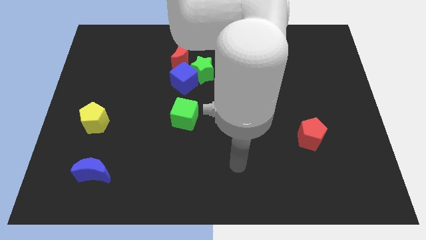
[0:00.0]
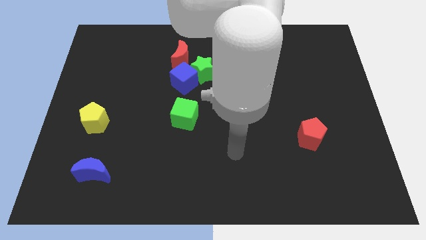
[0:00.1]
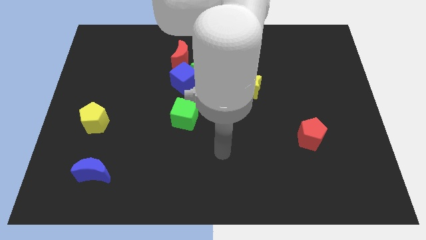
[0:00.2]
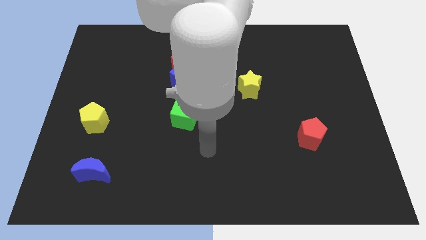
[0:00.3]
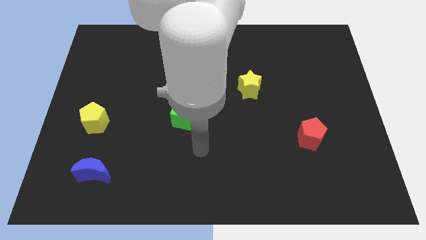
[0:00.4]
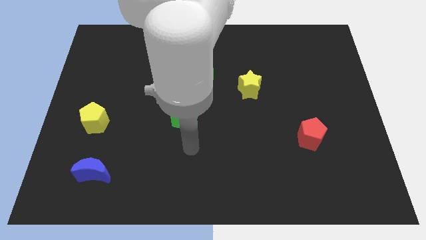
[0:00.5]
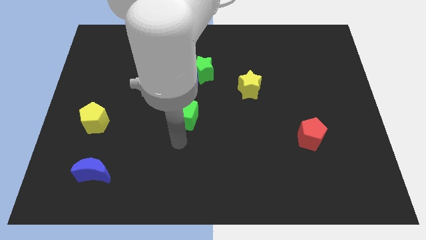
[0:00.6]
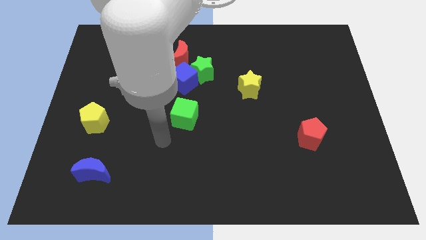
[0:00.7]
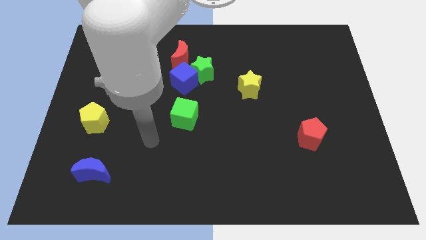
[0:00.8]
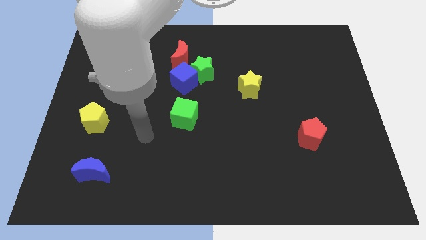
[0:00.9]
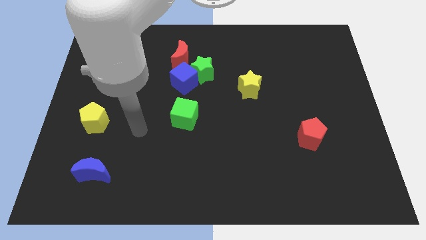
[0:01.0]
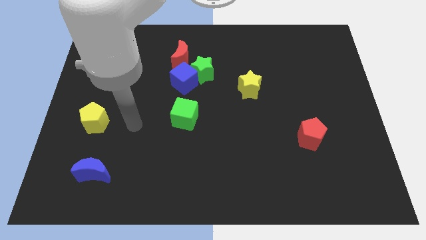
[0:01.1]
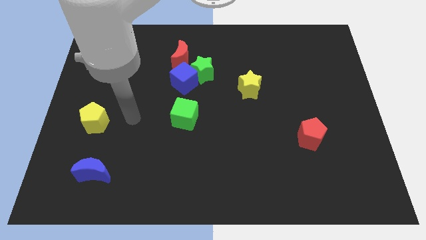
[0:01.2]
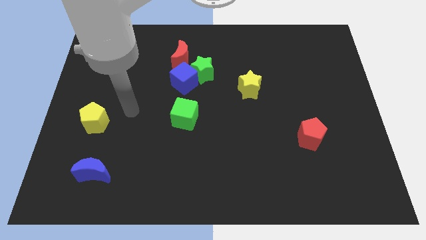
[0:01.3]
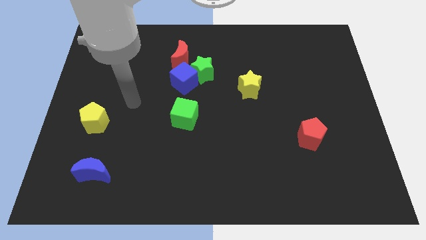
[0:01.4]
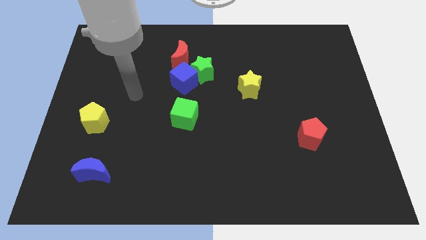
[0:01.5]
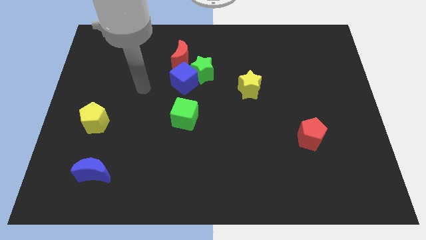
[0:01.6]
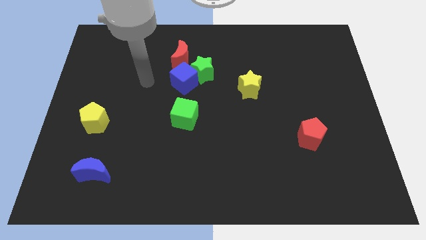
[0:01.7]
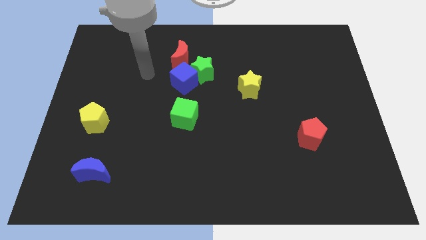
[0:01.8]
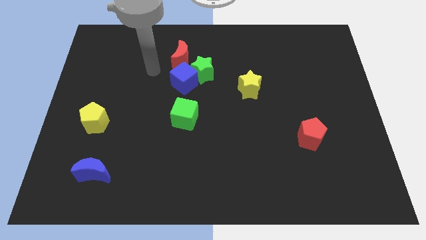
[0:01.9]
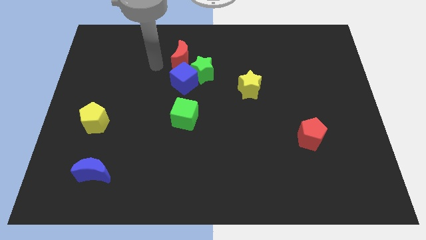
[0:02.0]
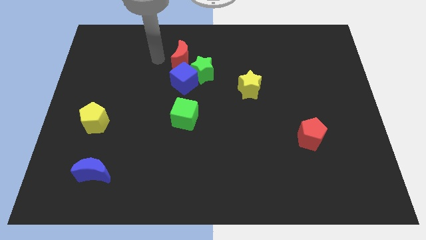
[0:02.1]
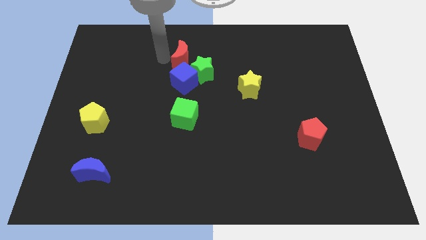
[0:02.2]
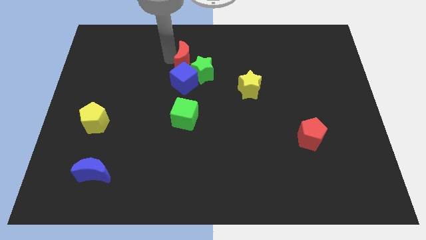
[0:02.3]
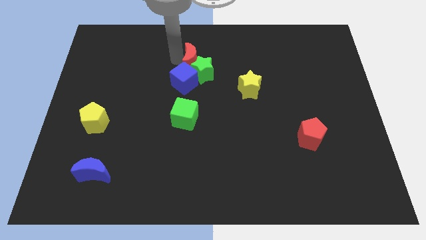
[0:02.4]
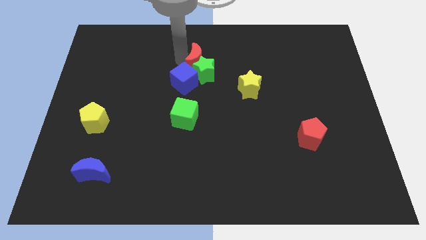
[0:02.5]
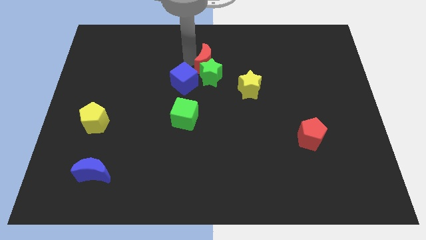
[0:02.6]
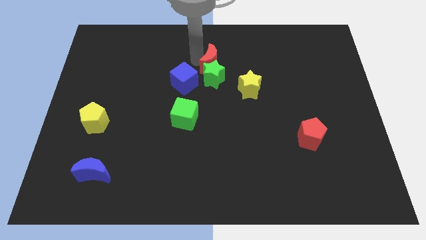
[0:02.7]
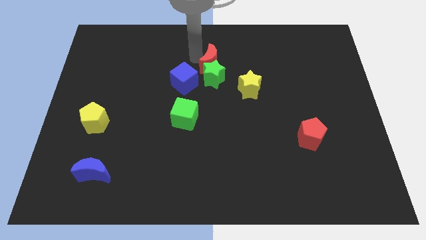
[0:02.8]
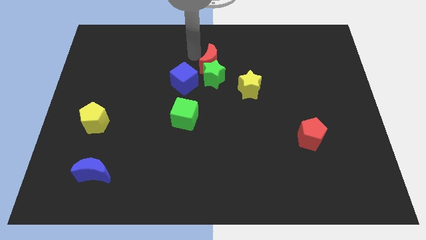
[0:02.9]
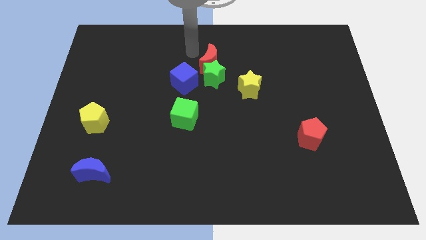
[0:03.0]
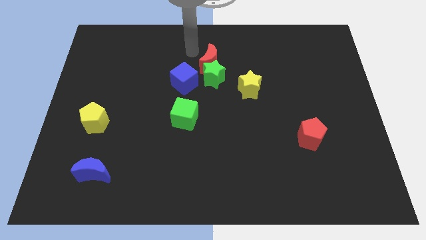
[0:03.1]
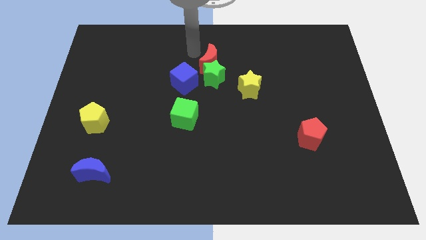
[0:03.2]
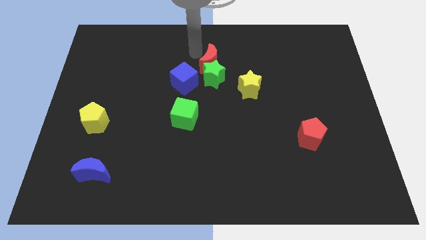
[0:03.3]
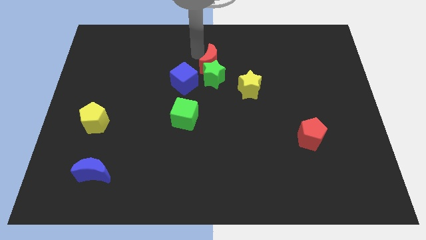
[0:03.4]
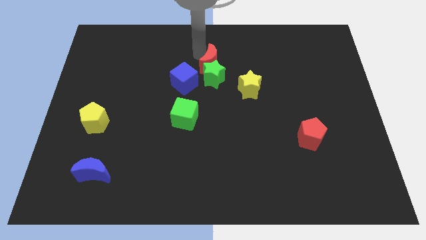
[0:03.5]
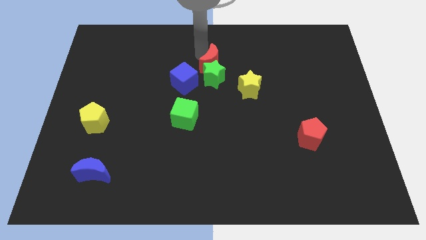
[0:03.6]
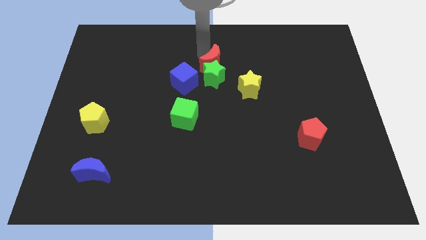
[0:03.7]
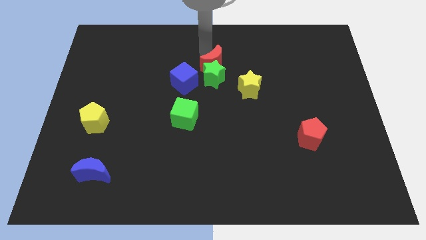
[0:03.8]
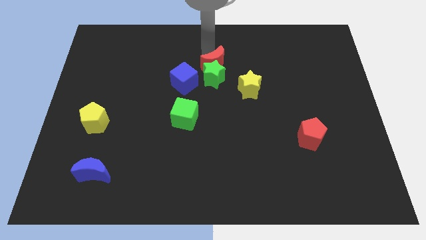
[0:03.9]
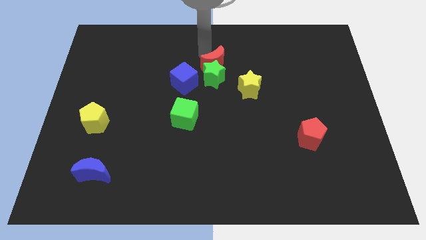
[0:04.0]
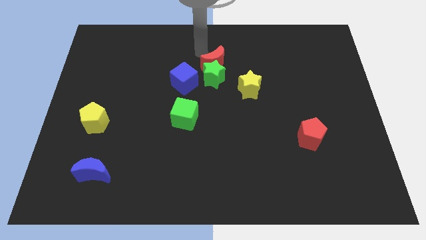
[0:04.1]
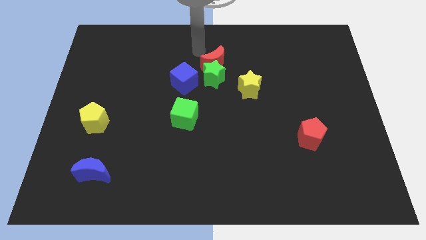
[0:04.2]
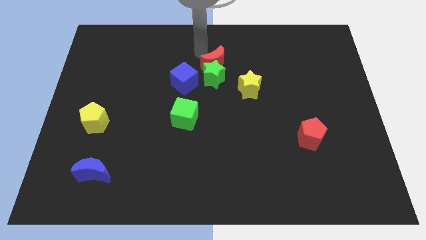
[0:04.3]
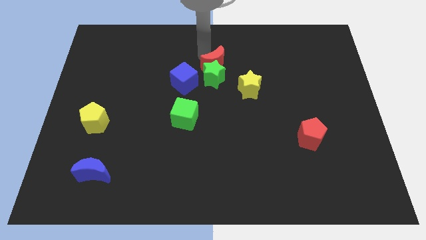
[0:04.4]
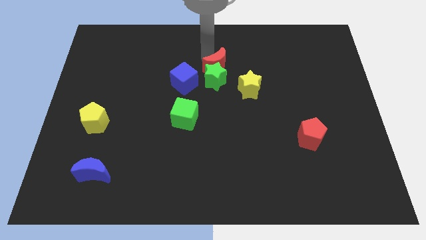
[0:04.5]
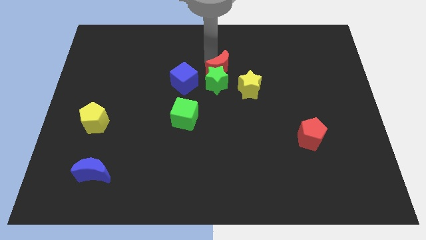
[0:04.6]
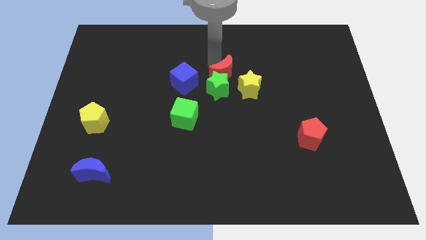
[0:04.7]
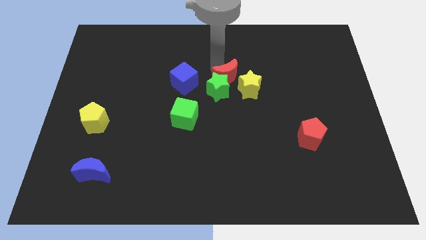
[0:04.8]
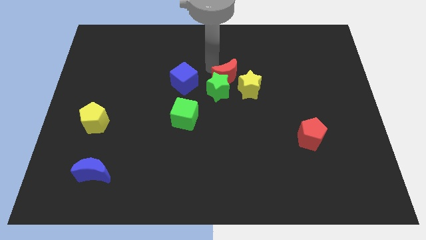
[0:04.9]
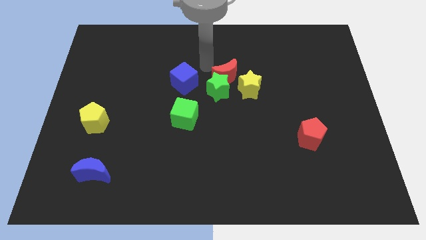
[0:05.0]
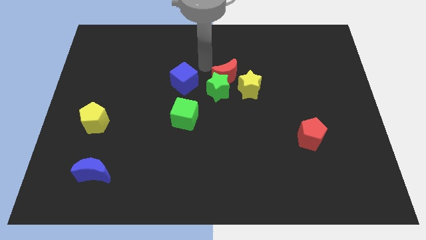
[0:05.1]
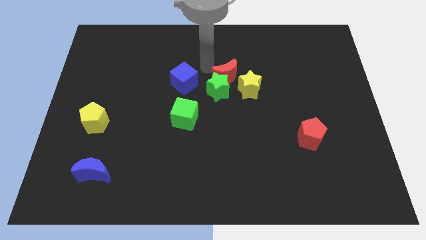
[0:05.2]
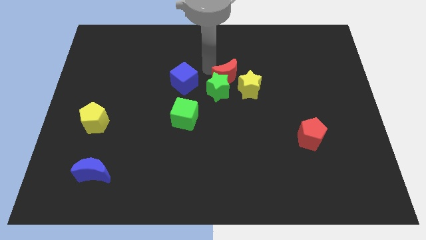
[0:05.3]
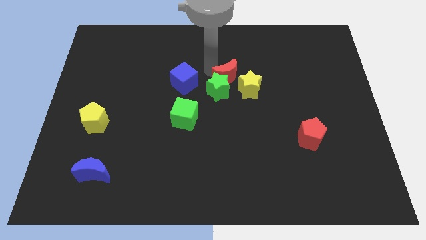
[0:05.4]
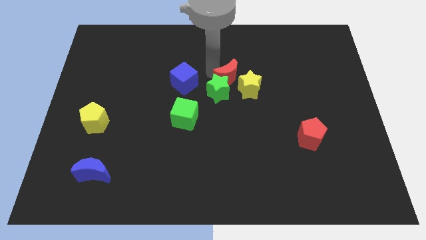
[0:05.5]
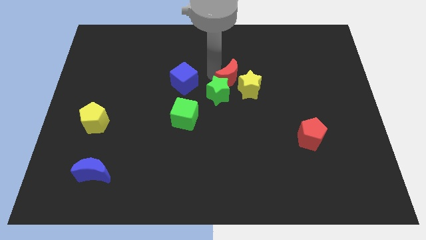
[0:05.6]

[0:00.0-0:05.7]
move the red moon next to the yellow star

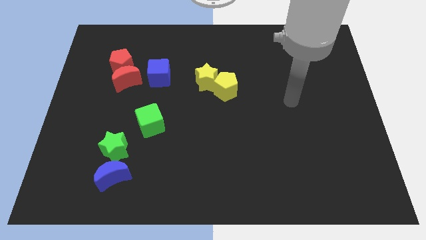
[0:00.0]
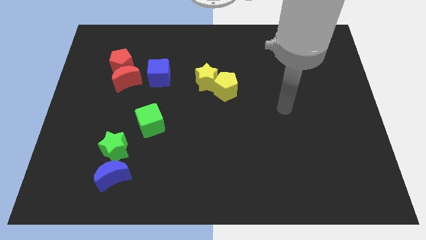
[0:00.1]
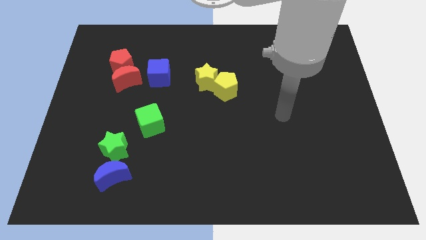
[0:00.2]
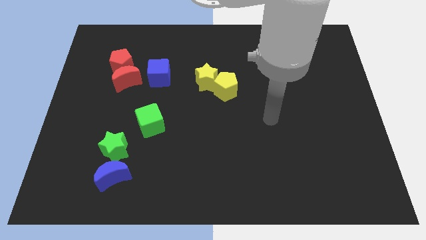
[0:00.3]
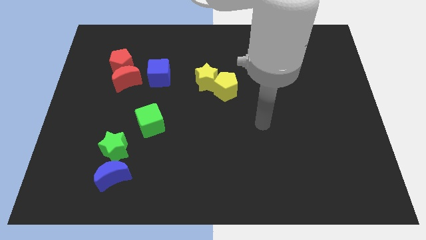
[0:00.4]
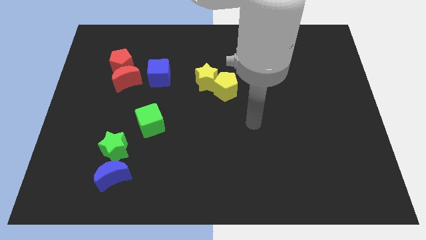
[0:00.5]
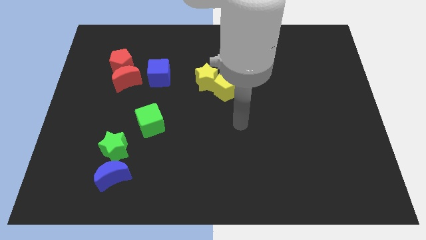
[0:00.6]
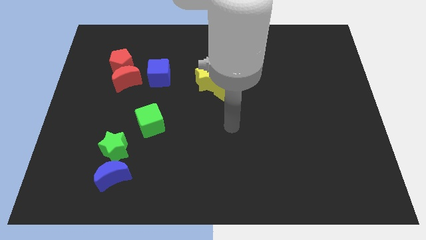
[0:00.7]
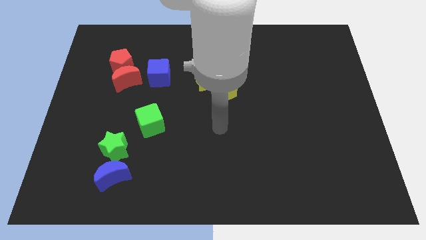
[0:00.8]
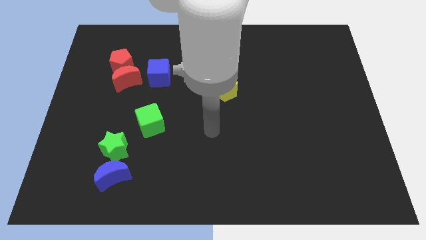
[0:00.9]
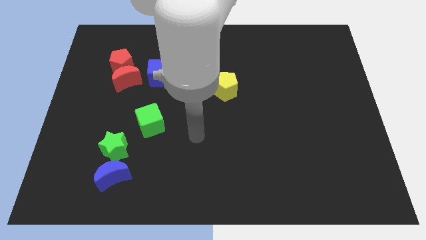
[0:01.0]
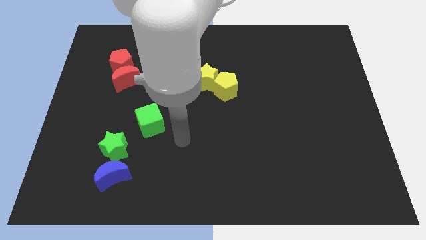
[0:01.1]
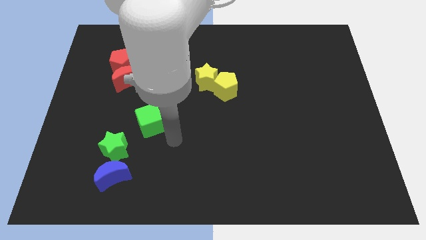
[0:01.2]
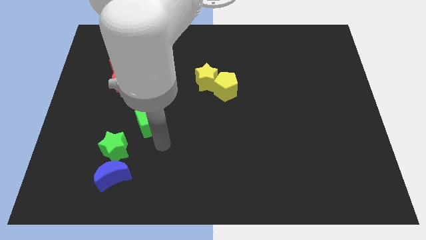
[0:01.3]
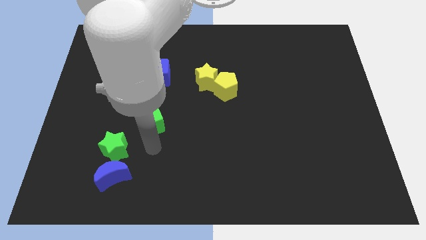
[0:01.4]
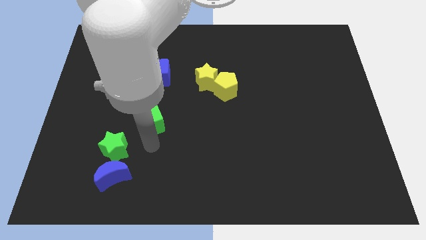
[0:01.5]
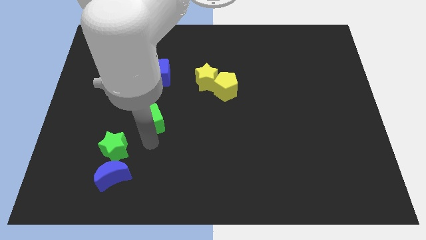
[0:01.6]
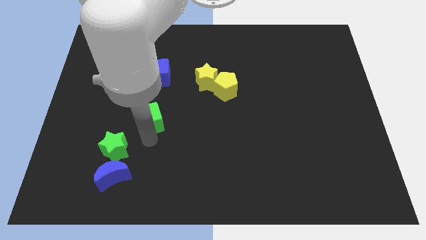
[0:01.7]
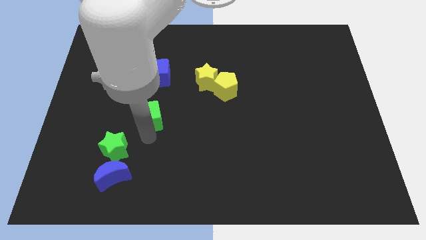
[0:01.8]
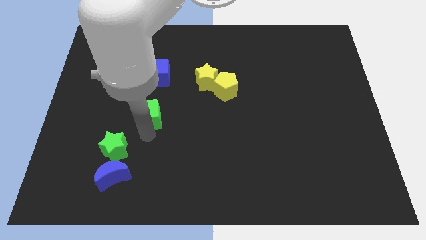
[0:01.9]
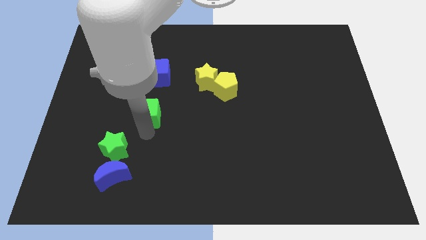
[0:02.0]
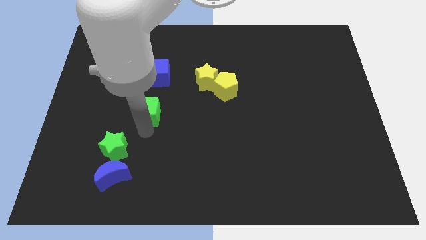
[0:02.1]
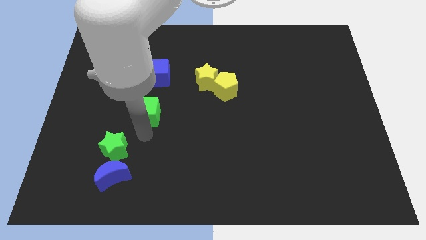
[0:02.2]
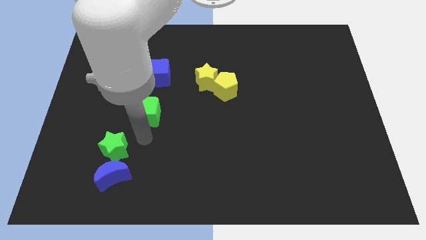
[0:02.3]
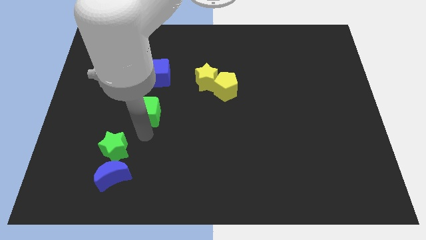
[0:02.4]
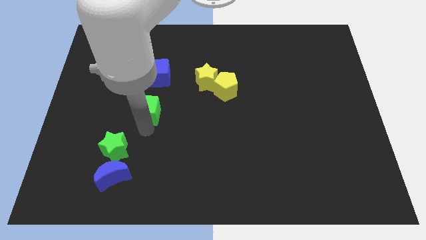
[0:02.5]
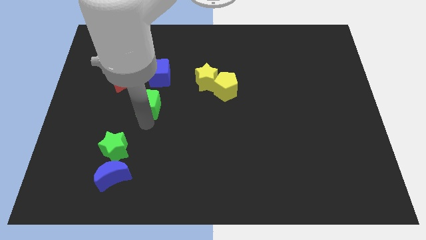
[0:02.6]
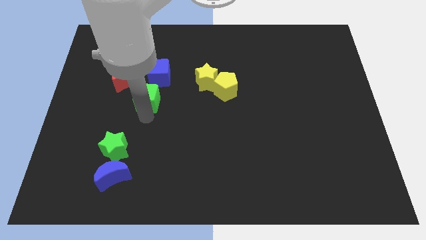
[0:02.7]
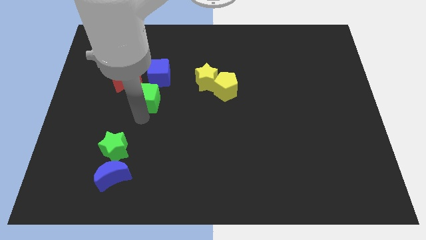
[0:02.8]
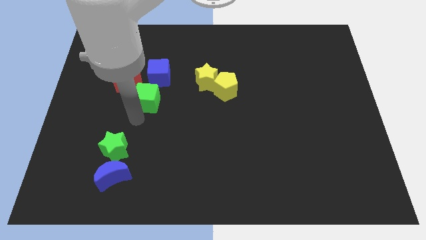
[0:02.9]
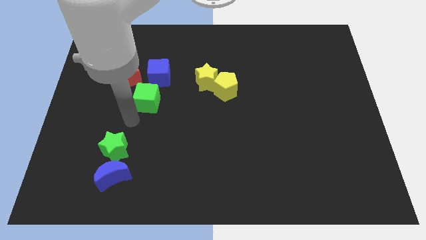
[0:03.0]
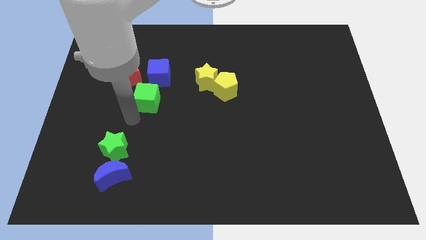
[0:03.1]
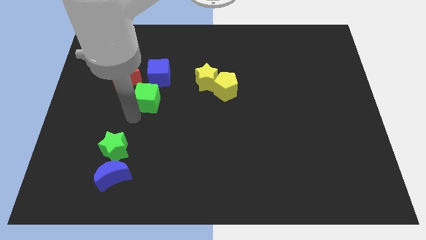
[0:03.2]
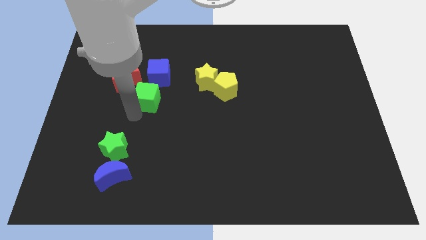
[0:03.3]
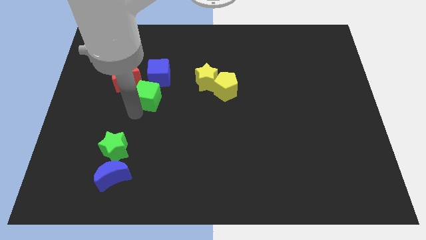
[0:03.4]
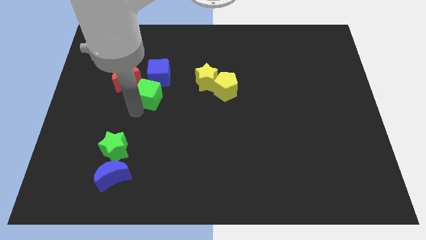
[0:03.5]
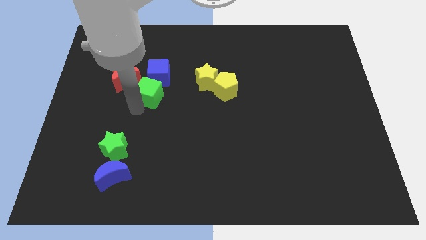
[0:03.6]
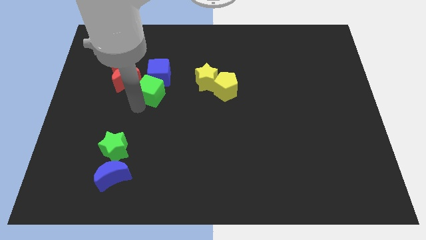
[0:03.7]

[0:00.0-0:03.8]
put the green cube to the blue cube
